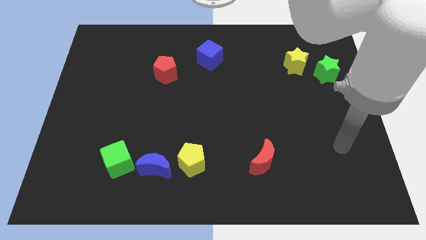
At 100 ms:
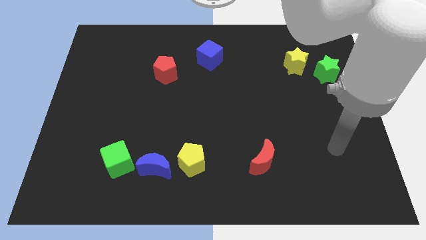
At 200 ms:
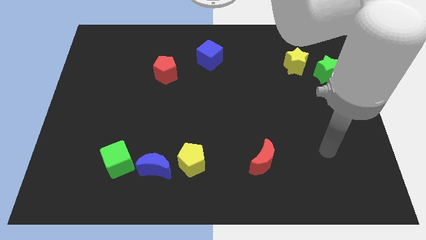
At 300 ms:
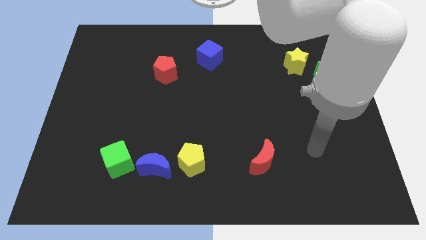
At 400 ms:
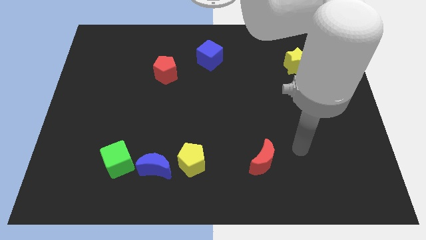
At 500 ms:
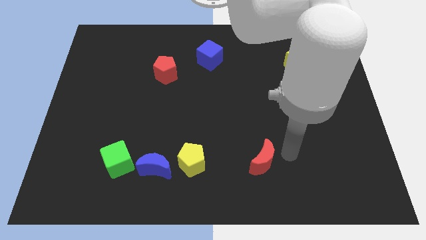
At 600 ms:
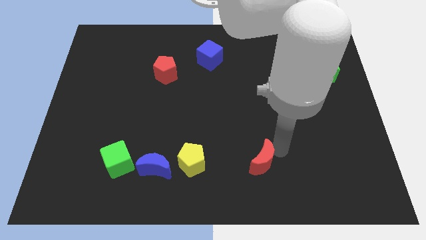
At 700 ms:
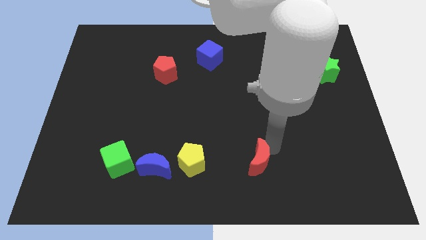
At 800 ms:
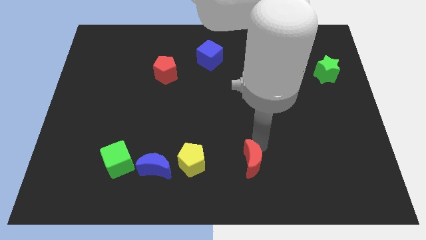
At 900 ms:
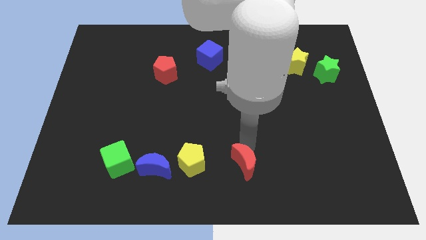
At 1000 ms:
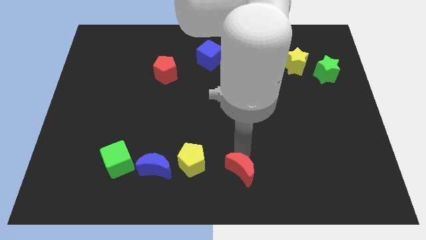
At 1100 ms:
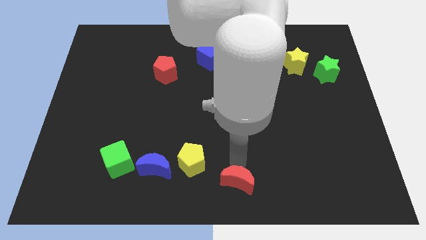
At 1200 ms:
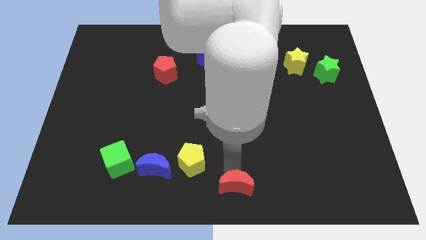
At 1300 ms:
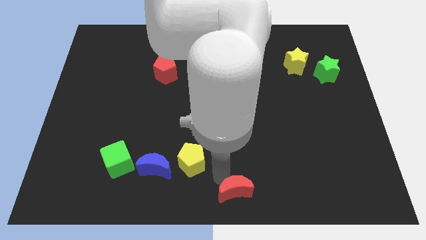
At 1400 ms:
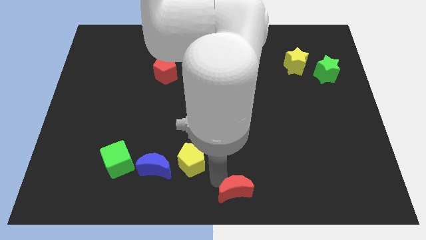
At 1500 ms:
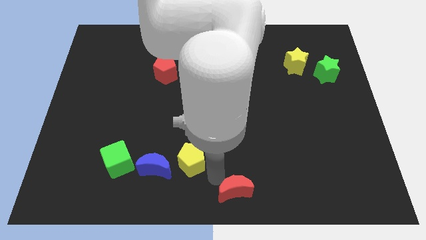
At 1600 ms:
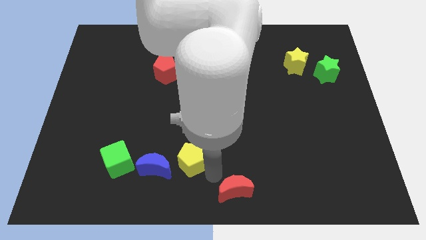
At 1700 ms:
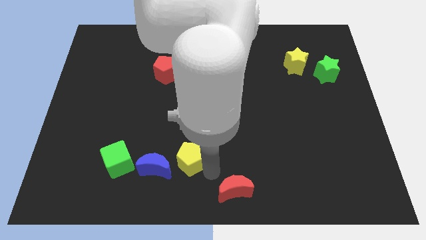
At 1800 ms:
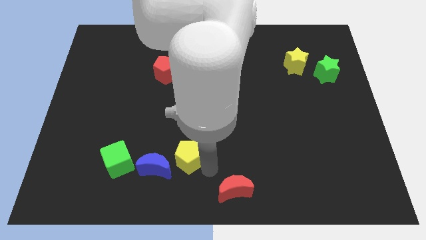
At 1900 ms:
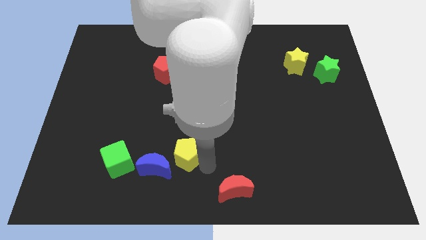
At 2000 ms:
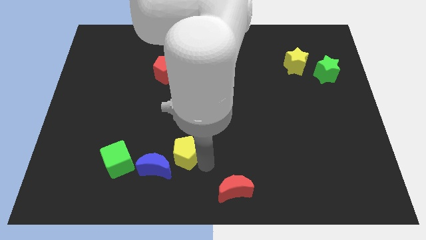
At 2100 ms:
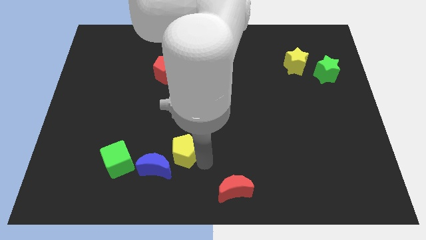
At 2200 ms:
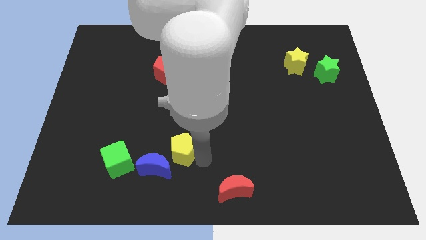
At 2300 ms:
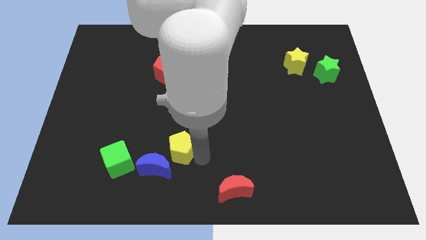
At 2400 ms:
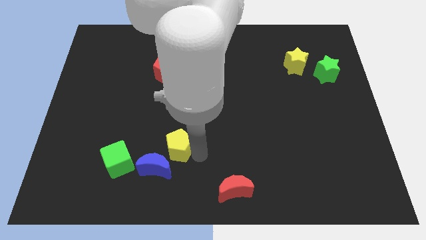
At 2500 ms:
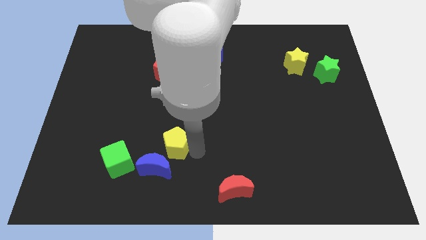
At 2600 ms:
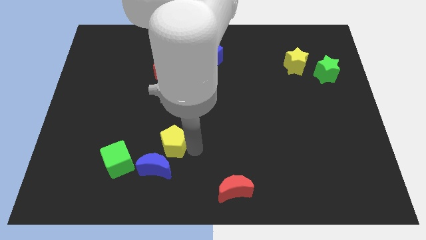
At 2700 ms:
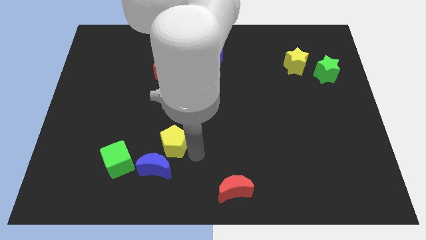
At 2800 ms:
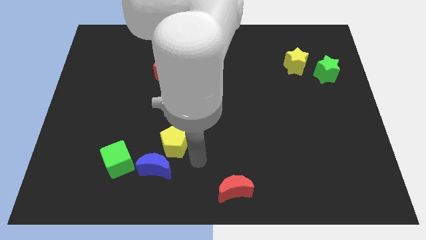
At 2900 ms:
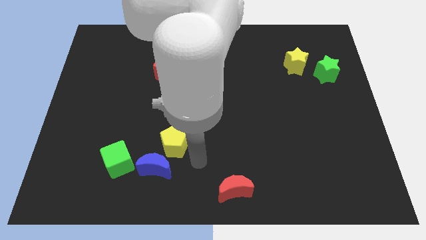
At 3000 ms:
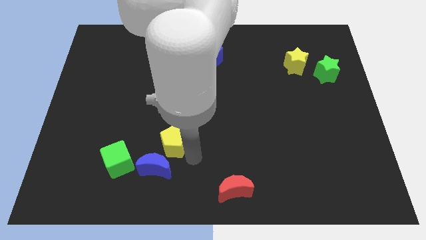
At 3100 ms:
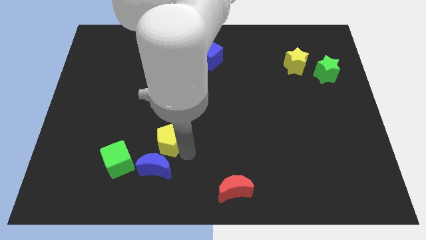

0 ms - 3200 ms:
move the yellow pentagon up and left diagonally somewhat

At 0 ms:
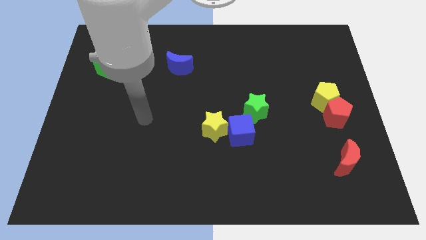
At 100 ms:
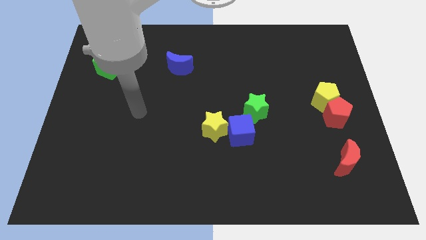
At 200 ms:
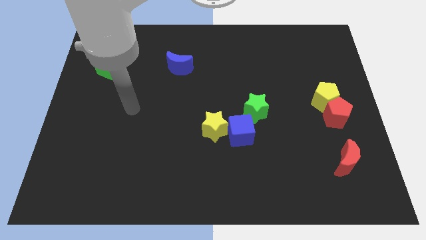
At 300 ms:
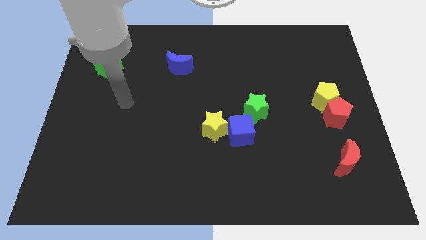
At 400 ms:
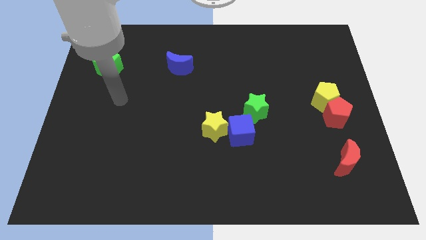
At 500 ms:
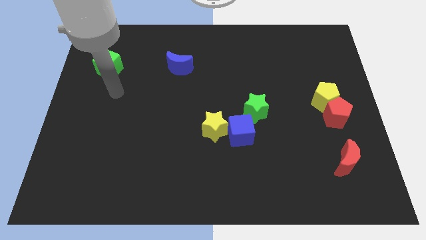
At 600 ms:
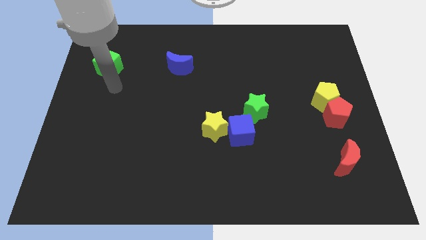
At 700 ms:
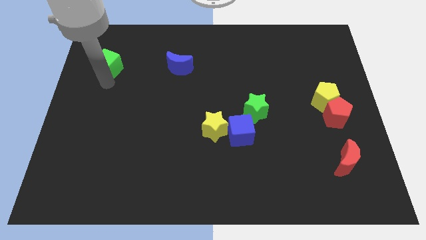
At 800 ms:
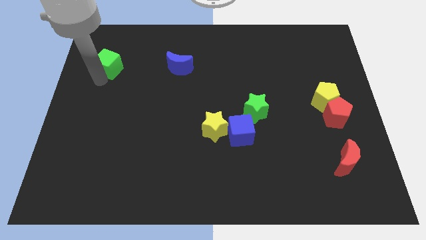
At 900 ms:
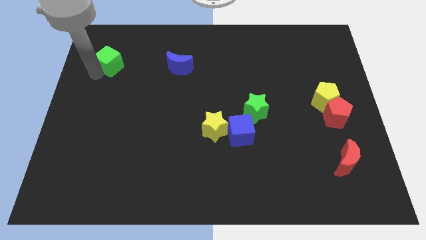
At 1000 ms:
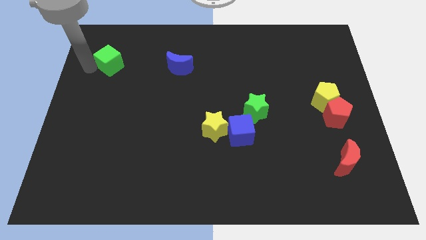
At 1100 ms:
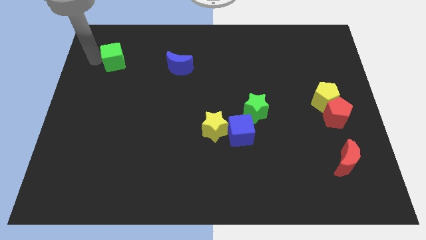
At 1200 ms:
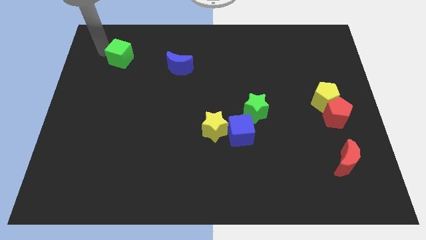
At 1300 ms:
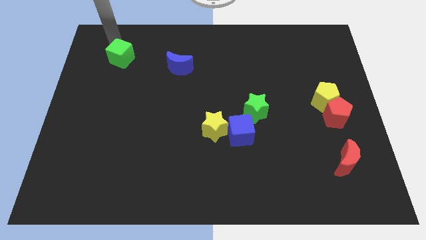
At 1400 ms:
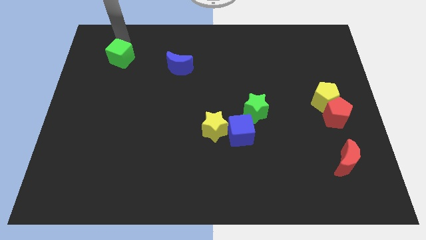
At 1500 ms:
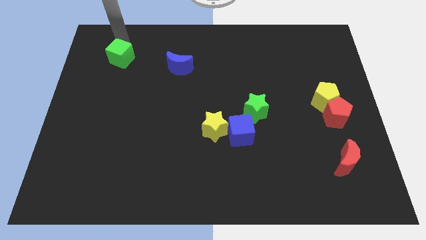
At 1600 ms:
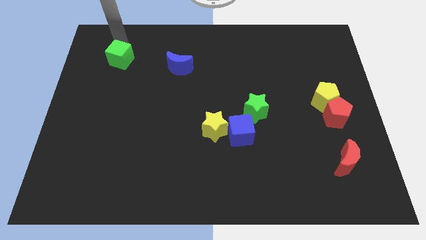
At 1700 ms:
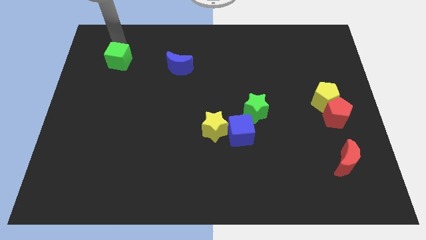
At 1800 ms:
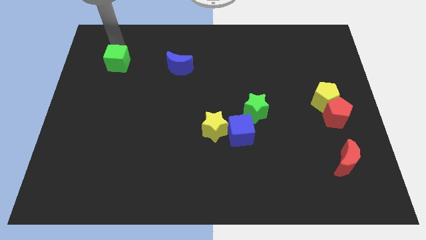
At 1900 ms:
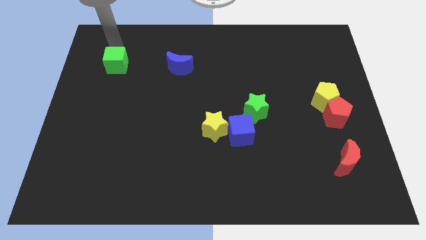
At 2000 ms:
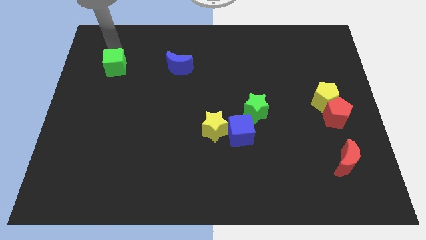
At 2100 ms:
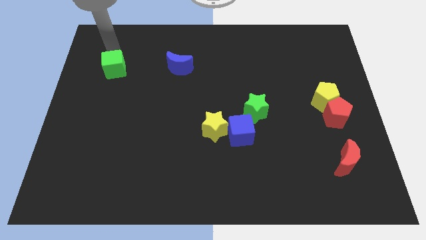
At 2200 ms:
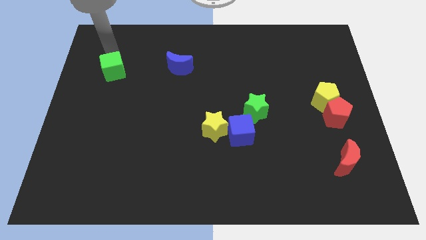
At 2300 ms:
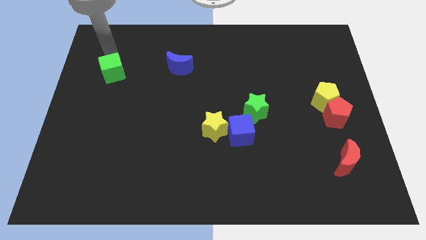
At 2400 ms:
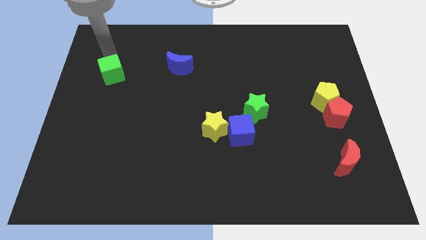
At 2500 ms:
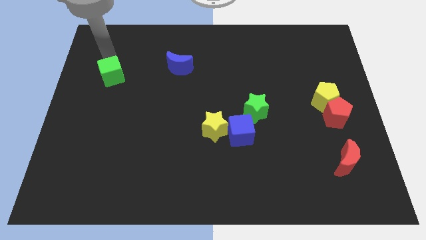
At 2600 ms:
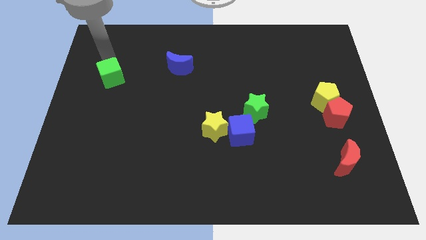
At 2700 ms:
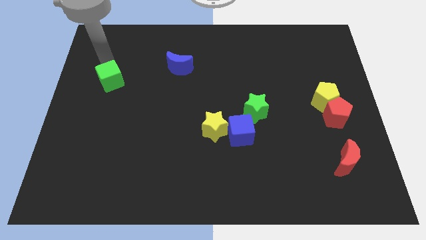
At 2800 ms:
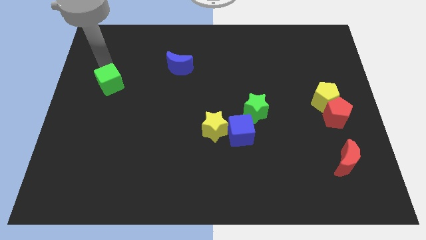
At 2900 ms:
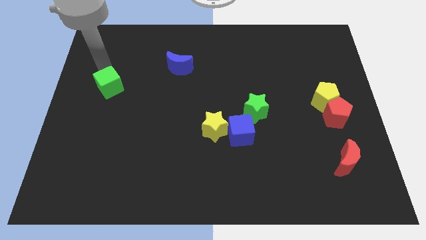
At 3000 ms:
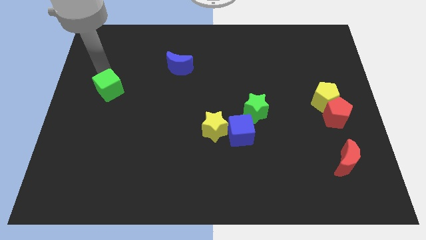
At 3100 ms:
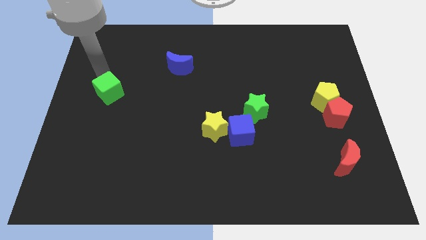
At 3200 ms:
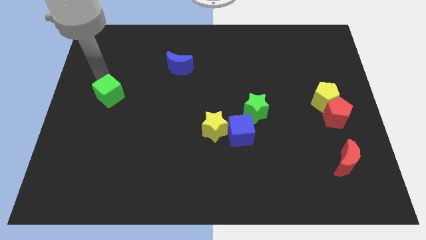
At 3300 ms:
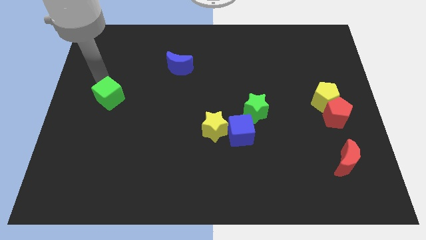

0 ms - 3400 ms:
move the green cube downwards and then to the right a little bit

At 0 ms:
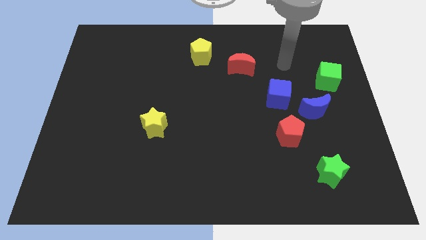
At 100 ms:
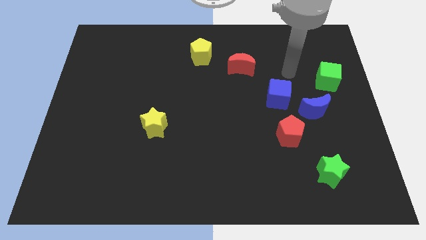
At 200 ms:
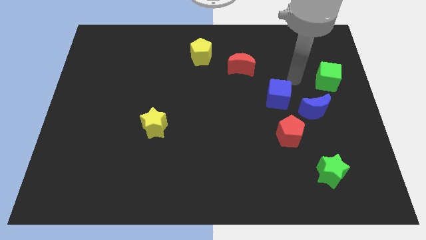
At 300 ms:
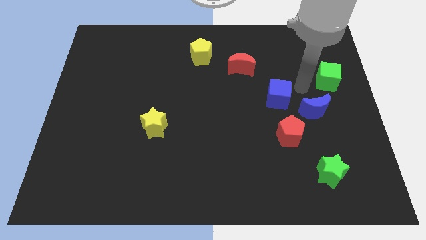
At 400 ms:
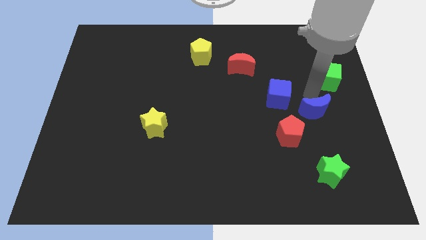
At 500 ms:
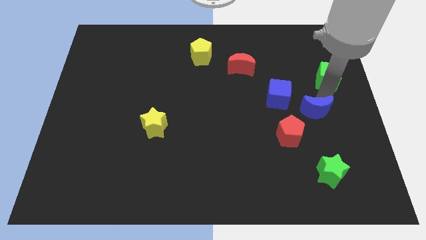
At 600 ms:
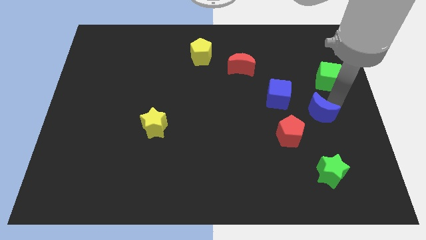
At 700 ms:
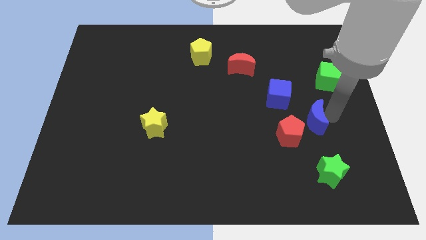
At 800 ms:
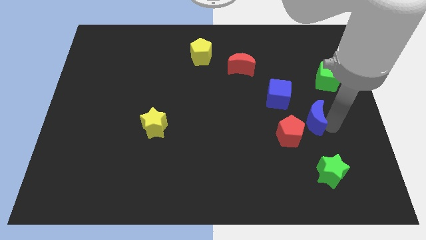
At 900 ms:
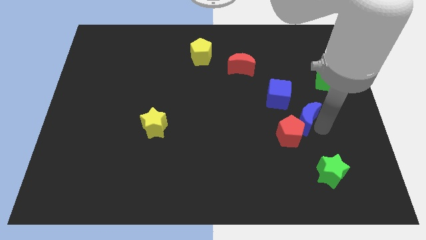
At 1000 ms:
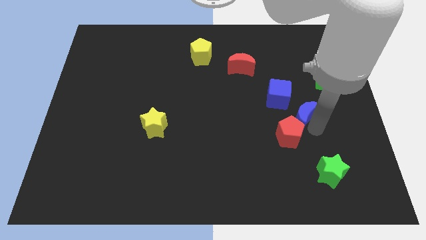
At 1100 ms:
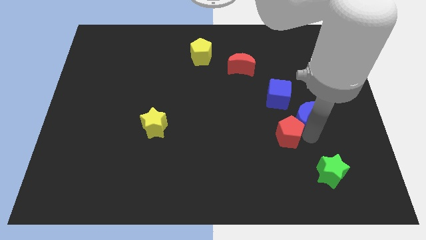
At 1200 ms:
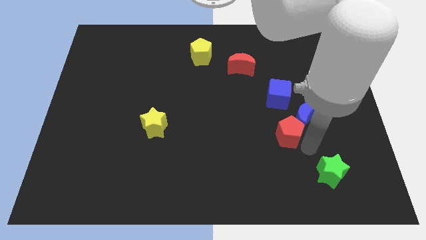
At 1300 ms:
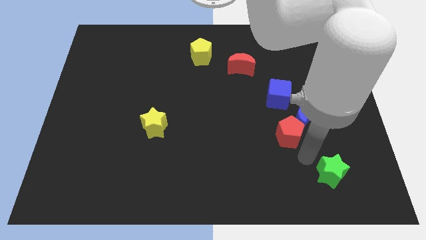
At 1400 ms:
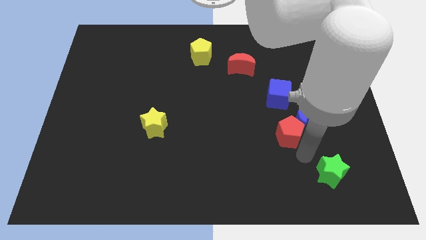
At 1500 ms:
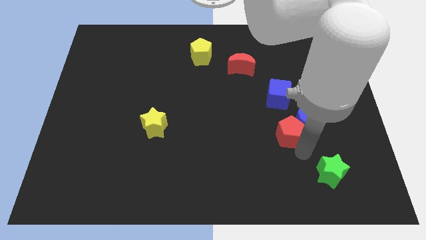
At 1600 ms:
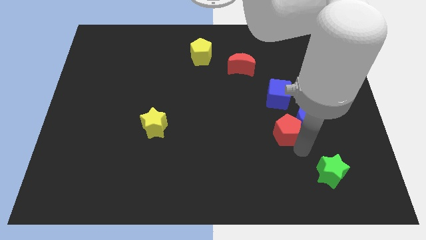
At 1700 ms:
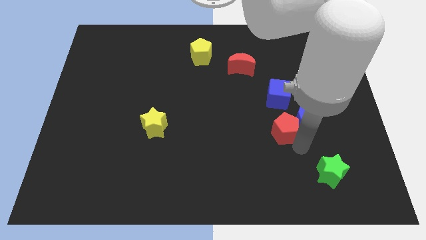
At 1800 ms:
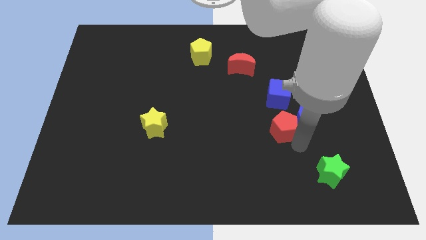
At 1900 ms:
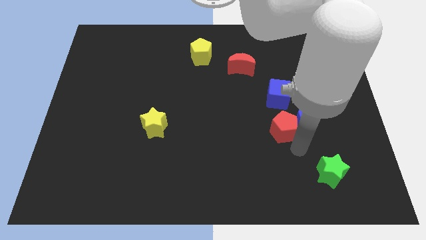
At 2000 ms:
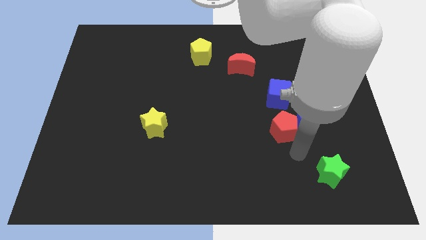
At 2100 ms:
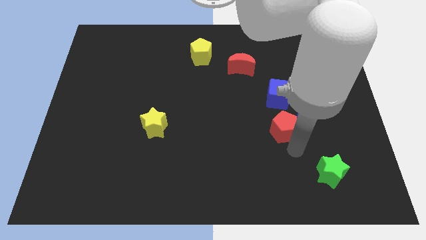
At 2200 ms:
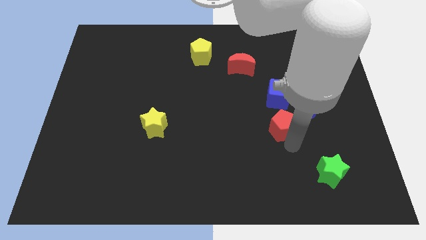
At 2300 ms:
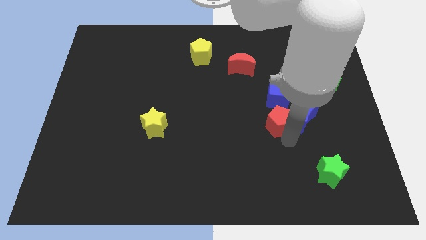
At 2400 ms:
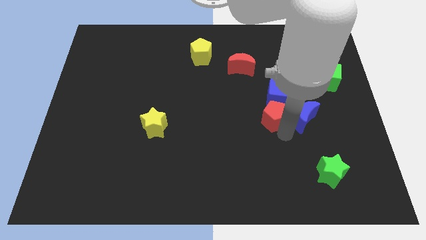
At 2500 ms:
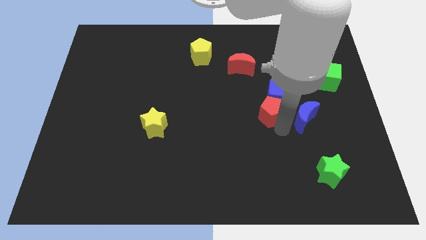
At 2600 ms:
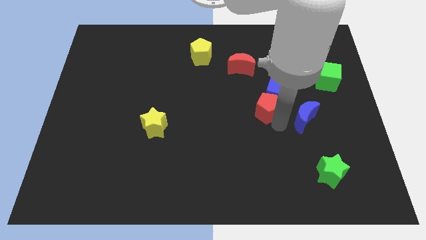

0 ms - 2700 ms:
slightly push the red pentagon diagonally up and to the left
